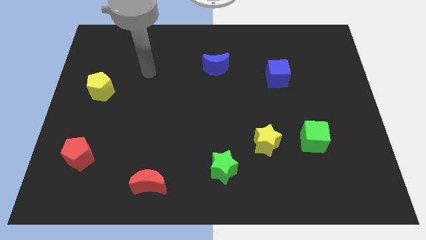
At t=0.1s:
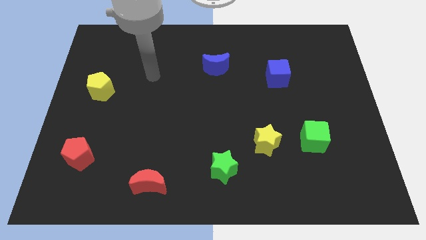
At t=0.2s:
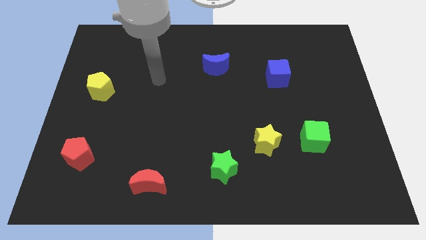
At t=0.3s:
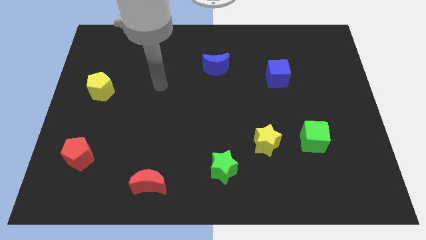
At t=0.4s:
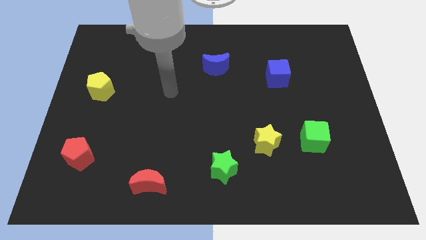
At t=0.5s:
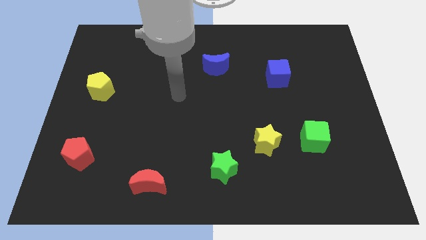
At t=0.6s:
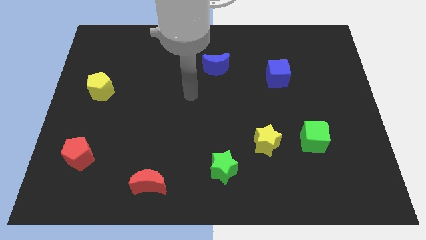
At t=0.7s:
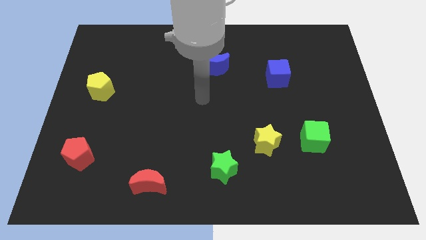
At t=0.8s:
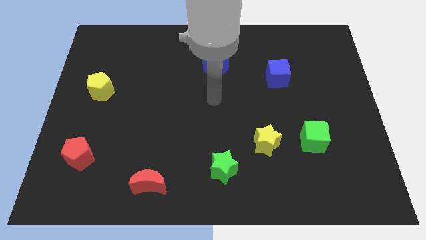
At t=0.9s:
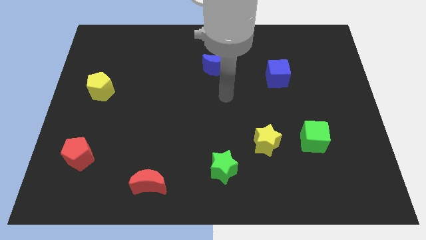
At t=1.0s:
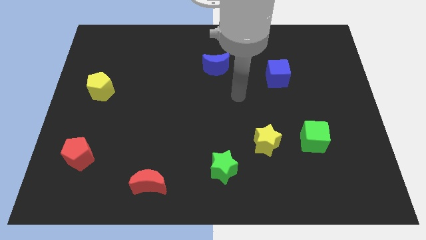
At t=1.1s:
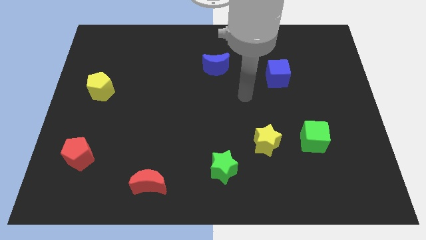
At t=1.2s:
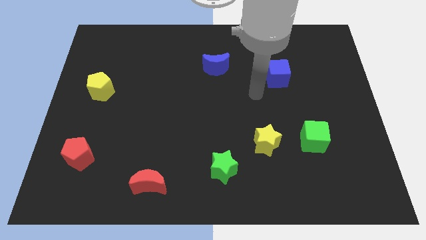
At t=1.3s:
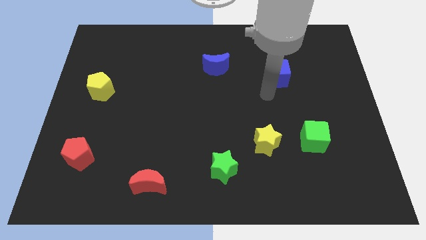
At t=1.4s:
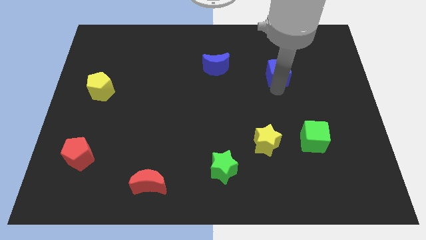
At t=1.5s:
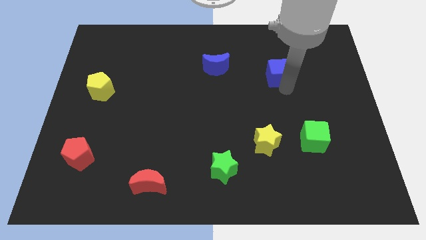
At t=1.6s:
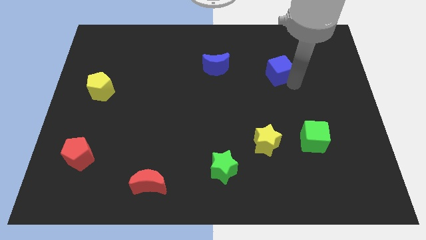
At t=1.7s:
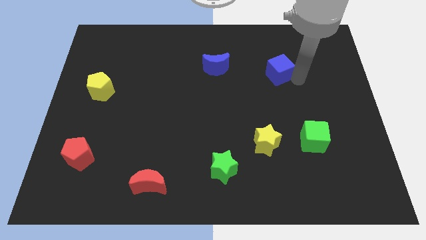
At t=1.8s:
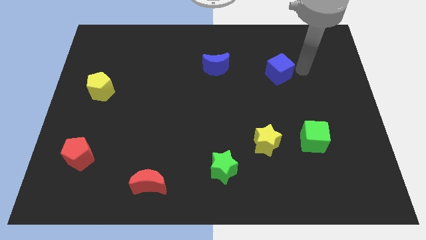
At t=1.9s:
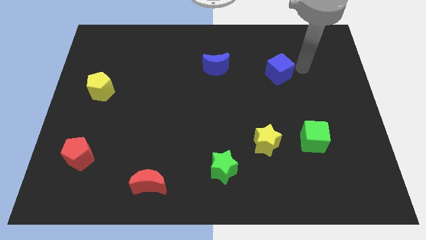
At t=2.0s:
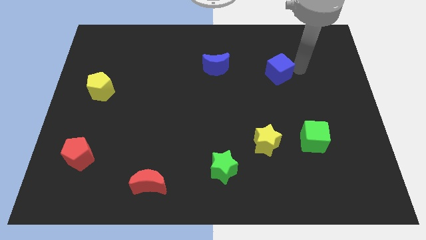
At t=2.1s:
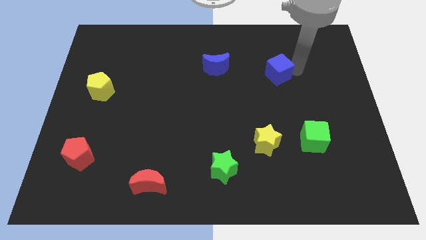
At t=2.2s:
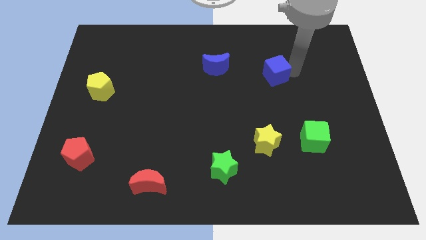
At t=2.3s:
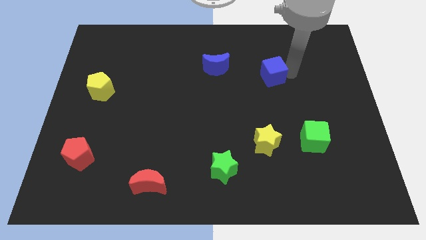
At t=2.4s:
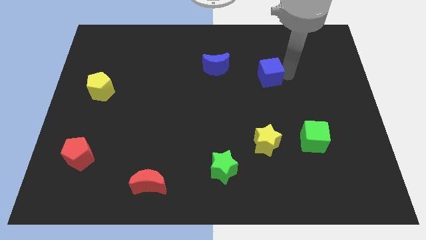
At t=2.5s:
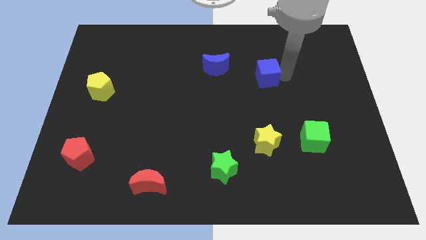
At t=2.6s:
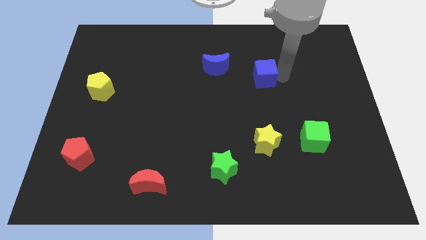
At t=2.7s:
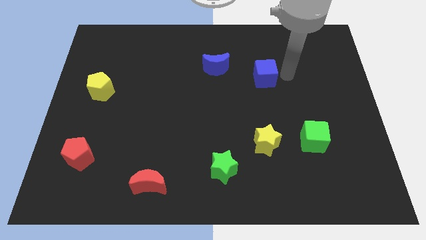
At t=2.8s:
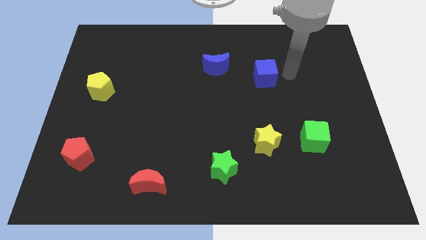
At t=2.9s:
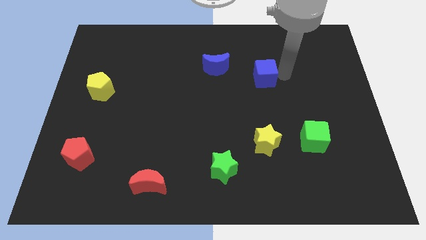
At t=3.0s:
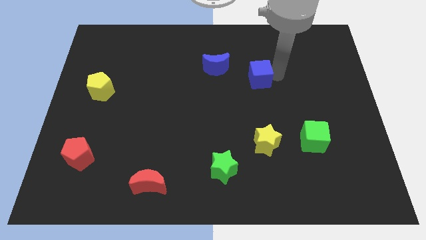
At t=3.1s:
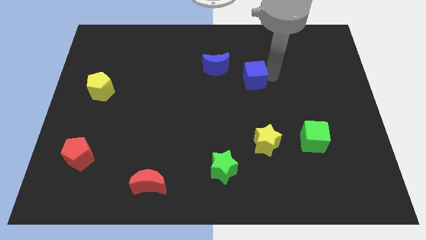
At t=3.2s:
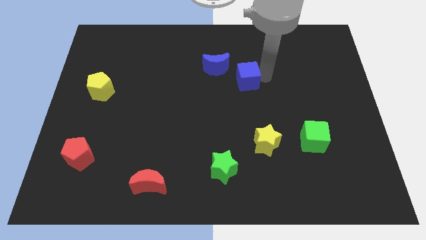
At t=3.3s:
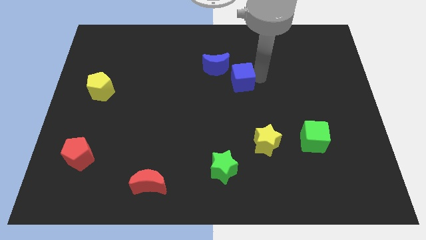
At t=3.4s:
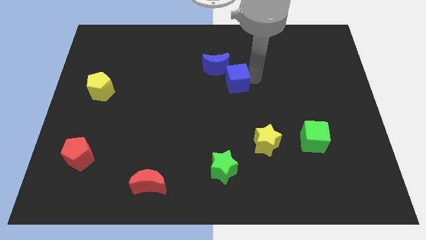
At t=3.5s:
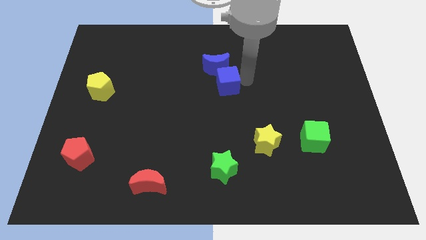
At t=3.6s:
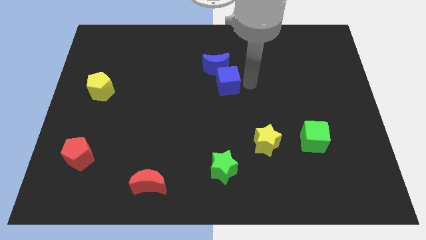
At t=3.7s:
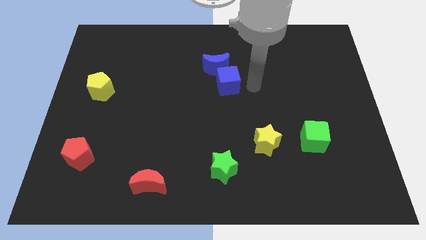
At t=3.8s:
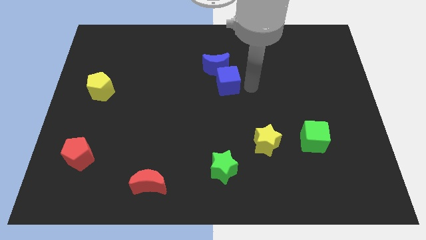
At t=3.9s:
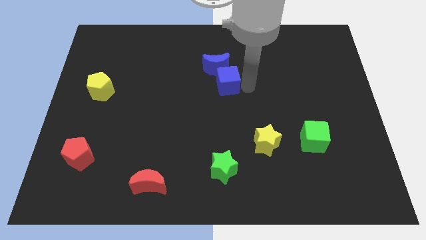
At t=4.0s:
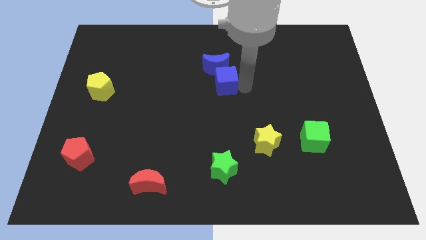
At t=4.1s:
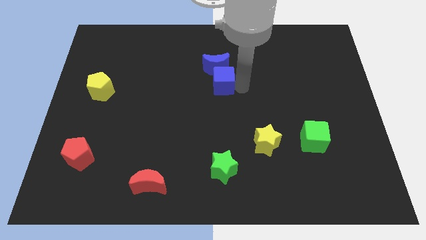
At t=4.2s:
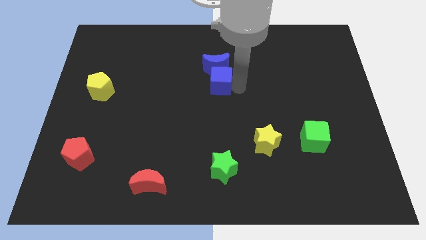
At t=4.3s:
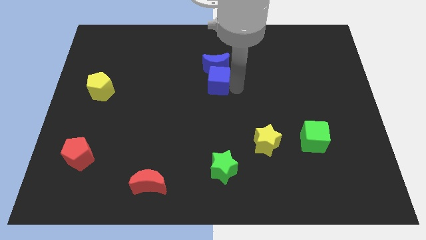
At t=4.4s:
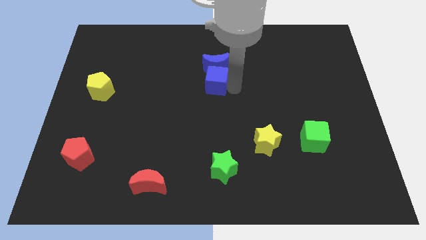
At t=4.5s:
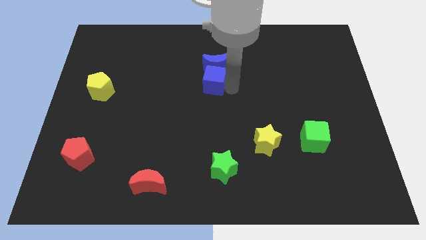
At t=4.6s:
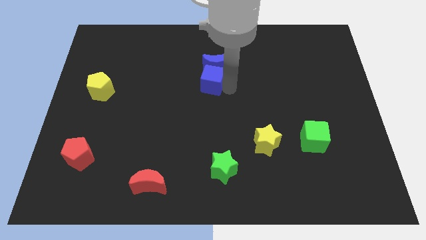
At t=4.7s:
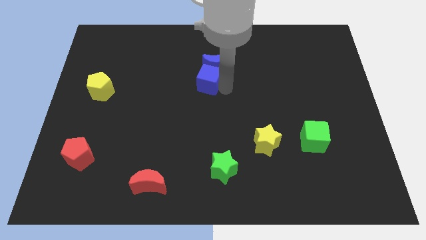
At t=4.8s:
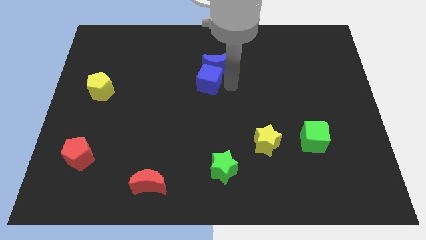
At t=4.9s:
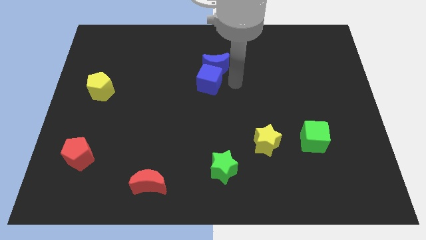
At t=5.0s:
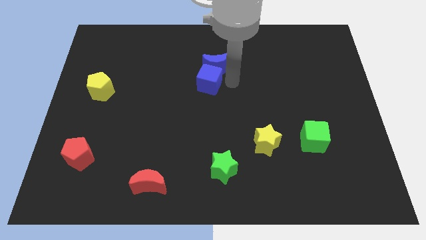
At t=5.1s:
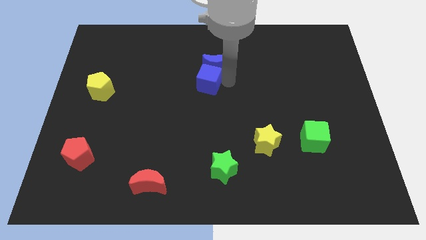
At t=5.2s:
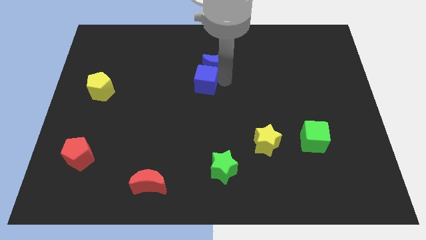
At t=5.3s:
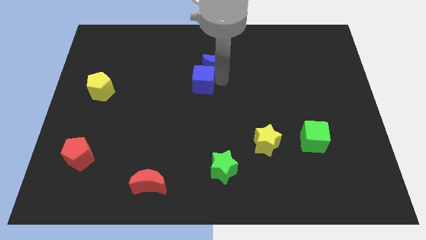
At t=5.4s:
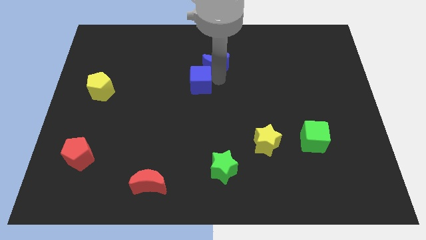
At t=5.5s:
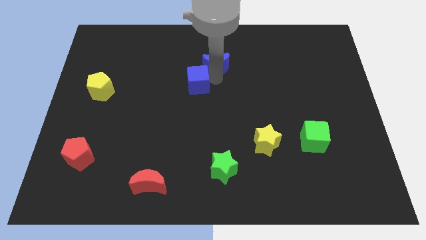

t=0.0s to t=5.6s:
move the blue cube left

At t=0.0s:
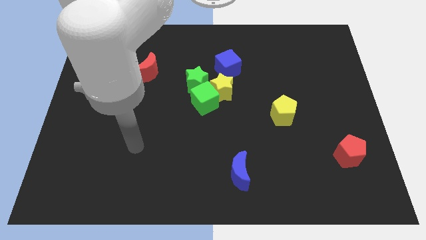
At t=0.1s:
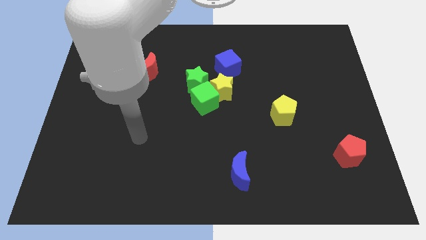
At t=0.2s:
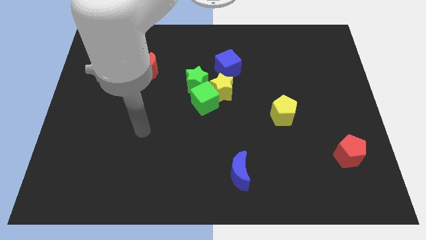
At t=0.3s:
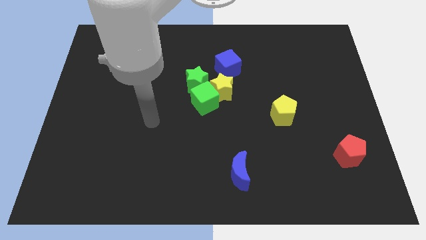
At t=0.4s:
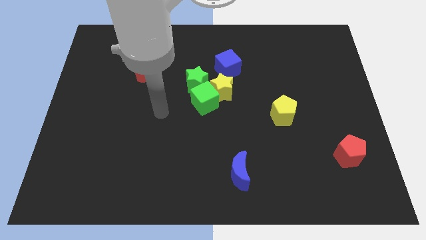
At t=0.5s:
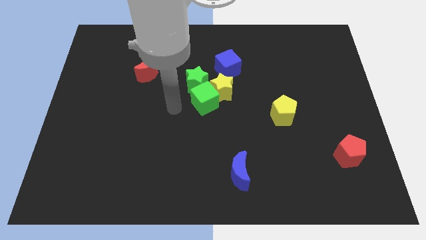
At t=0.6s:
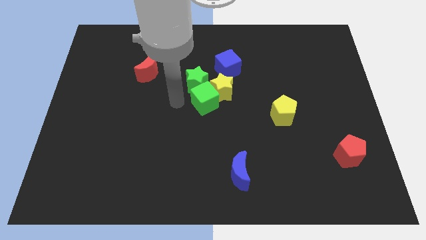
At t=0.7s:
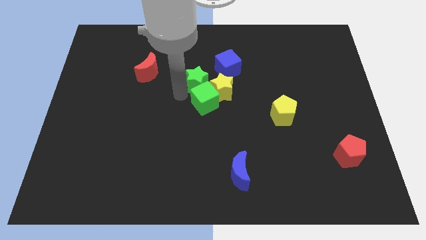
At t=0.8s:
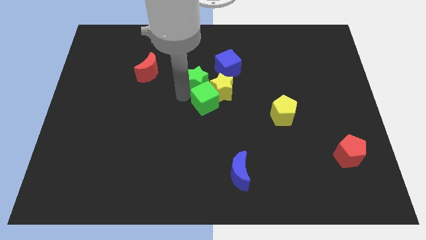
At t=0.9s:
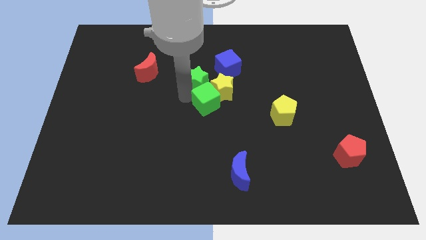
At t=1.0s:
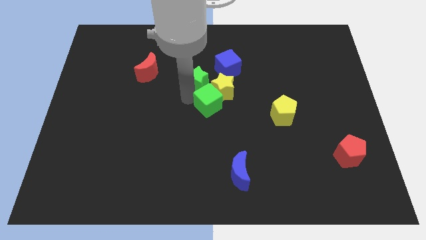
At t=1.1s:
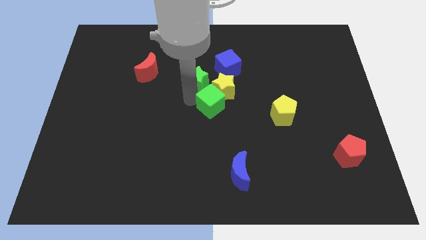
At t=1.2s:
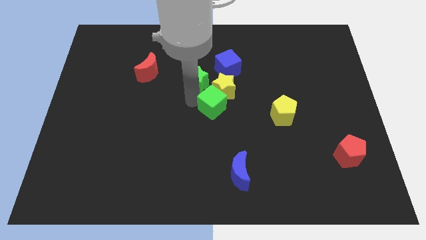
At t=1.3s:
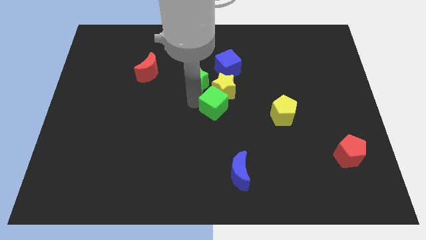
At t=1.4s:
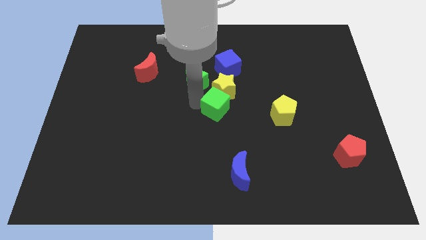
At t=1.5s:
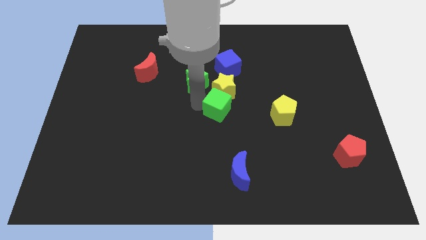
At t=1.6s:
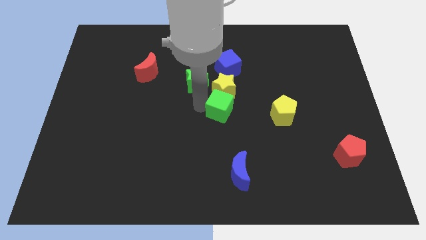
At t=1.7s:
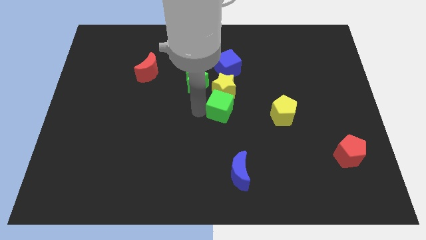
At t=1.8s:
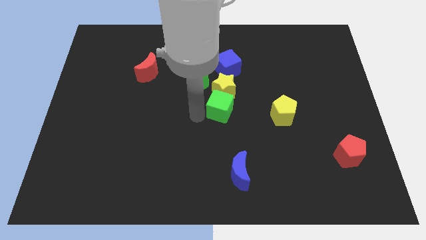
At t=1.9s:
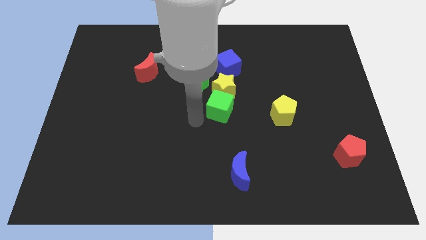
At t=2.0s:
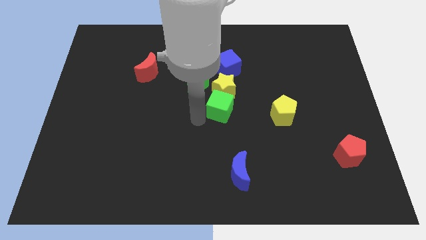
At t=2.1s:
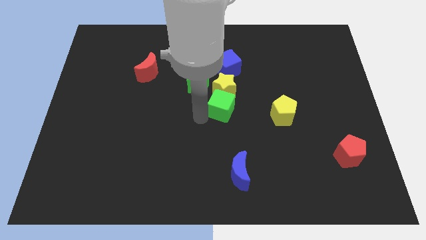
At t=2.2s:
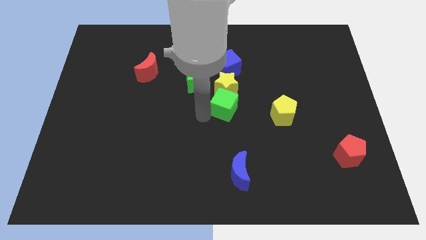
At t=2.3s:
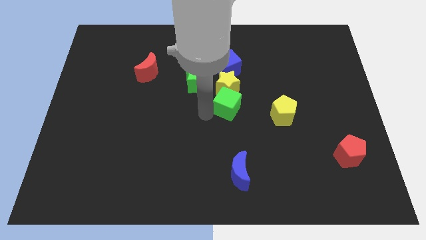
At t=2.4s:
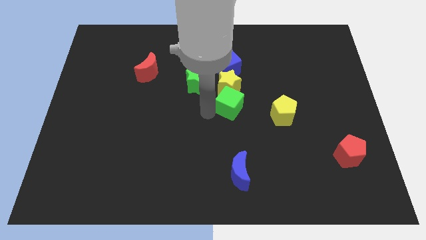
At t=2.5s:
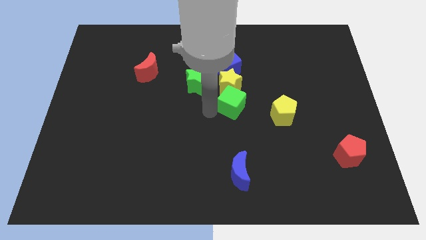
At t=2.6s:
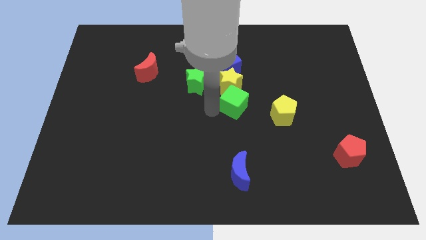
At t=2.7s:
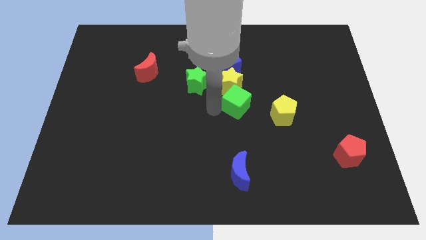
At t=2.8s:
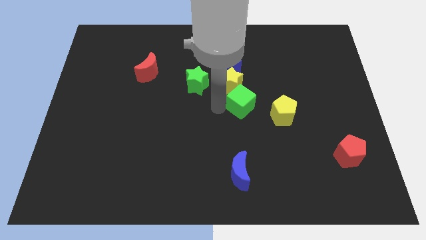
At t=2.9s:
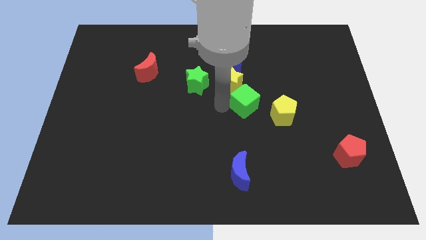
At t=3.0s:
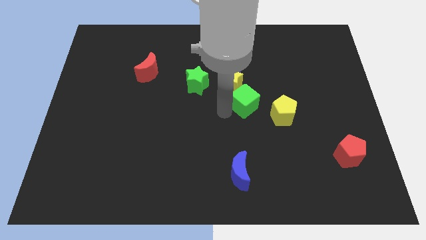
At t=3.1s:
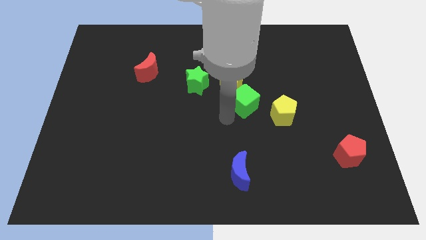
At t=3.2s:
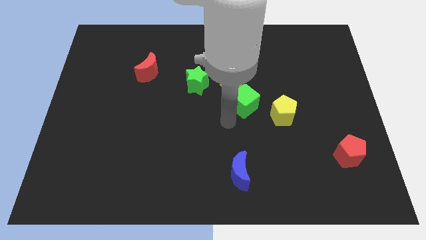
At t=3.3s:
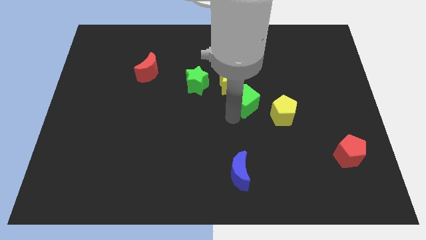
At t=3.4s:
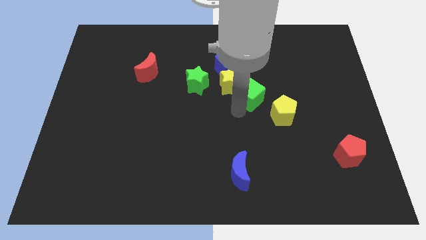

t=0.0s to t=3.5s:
push the green cube a little bit diagonally upwards and right
